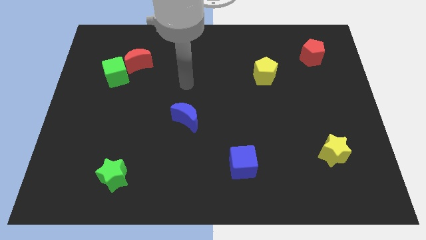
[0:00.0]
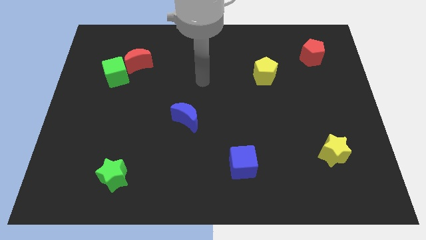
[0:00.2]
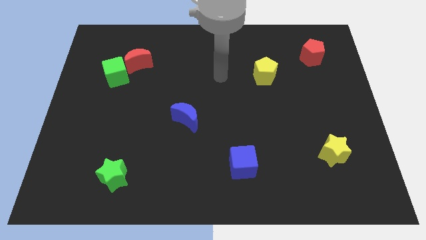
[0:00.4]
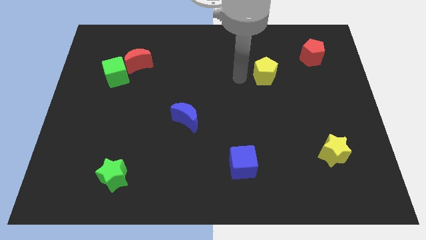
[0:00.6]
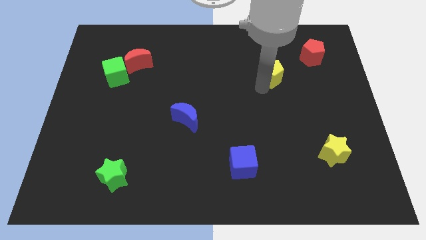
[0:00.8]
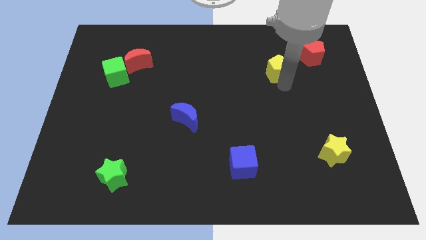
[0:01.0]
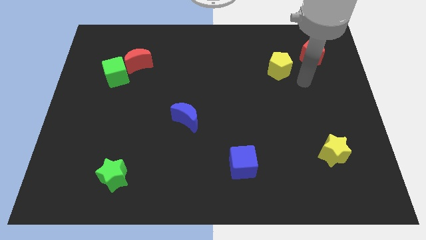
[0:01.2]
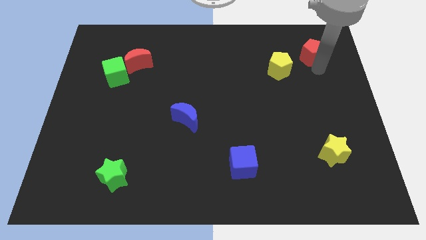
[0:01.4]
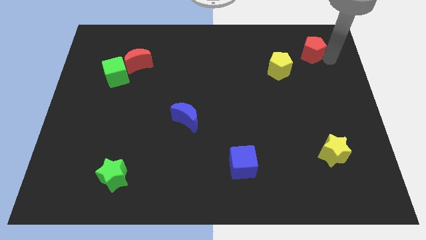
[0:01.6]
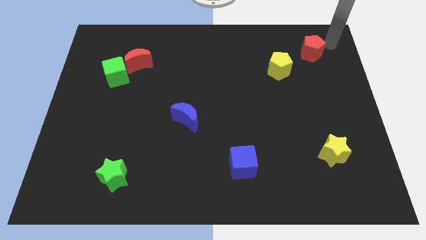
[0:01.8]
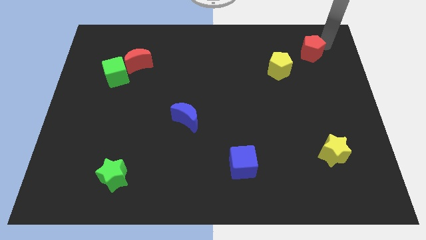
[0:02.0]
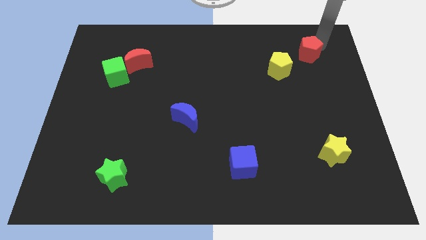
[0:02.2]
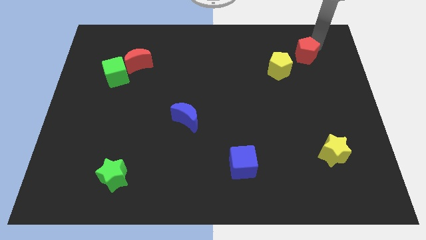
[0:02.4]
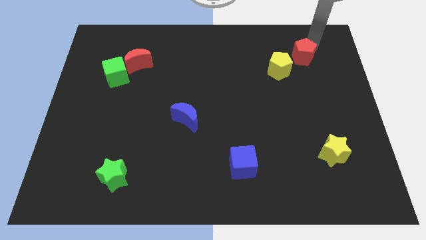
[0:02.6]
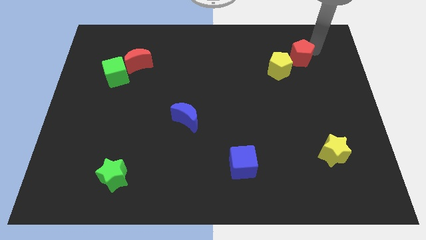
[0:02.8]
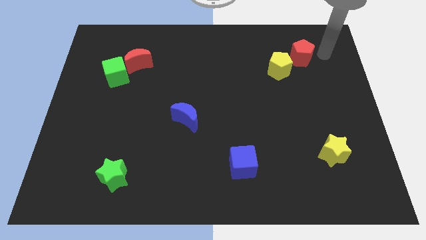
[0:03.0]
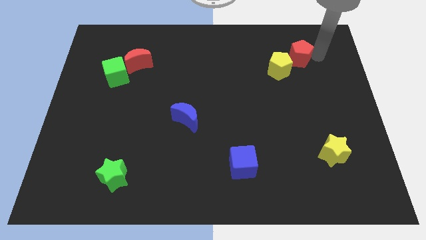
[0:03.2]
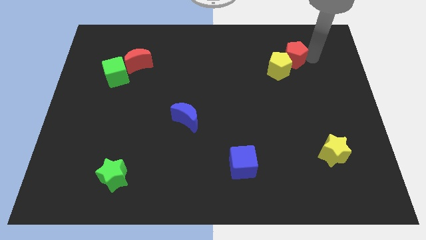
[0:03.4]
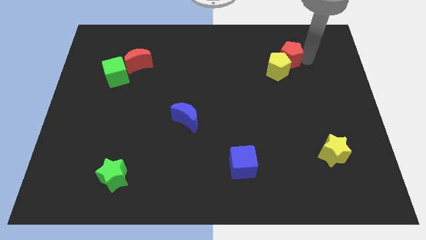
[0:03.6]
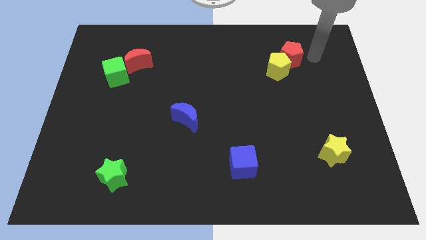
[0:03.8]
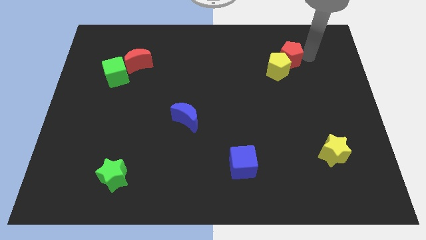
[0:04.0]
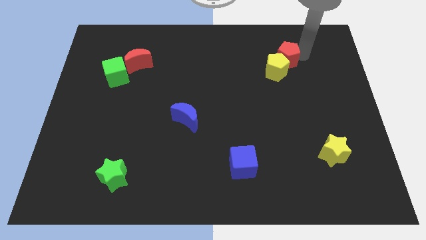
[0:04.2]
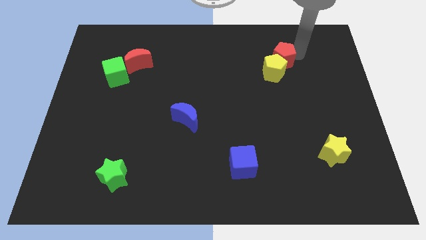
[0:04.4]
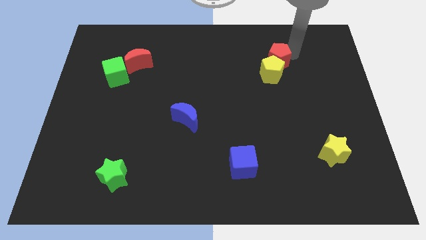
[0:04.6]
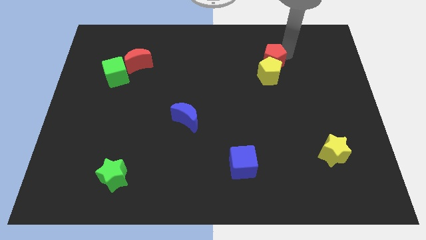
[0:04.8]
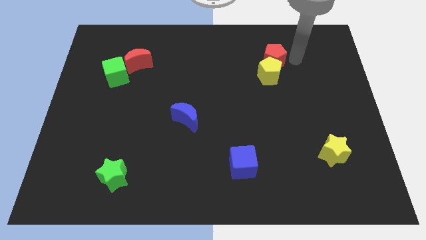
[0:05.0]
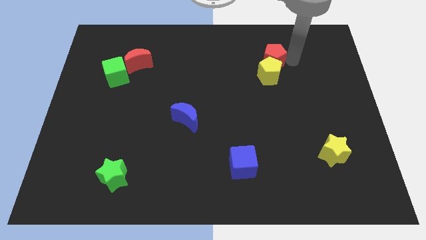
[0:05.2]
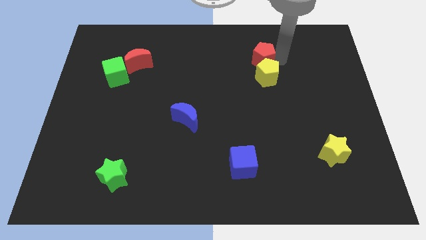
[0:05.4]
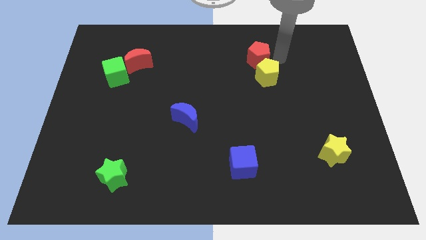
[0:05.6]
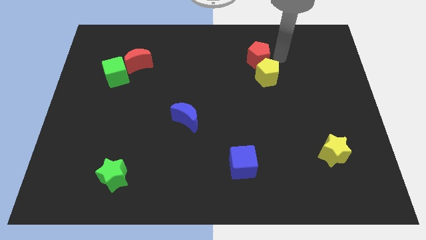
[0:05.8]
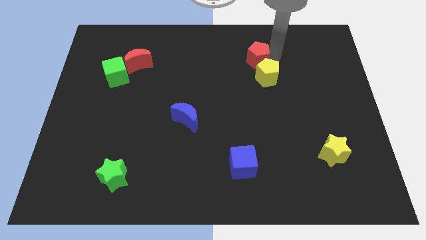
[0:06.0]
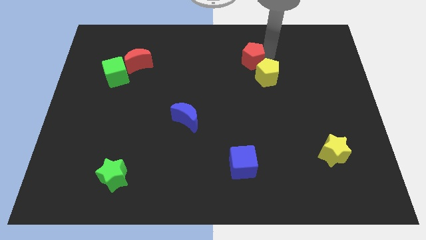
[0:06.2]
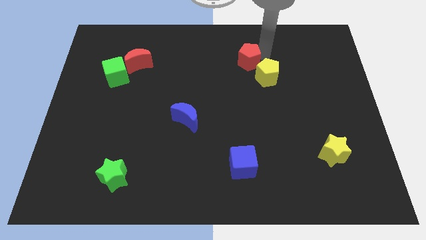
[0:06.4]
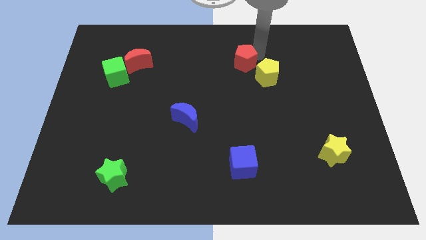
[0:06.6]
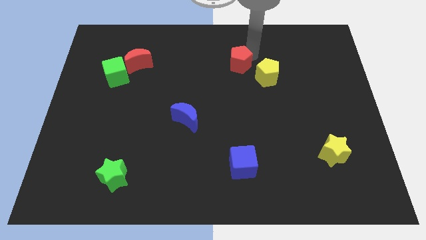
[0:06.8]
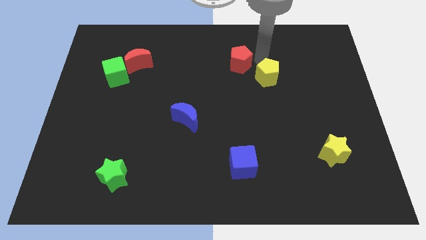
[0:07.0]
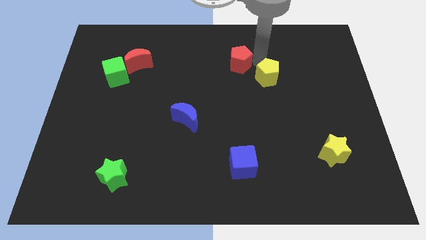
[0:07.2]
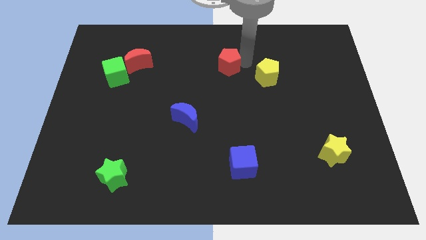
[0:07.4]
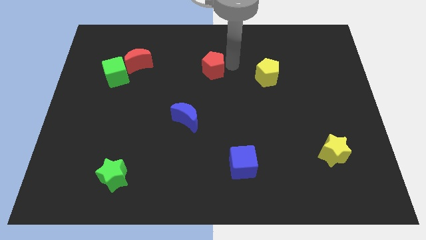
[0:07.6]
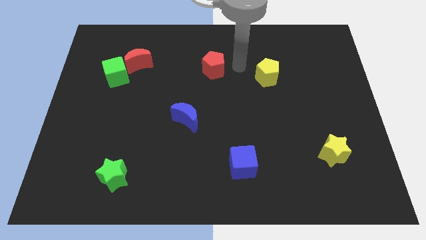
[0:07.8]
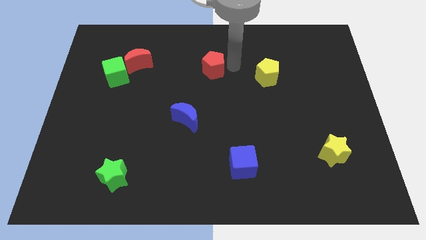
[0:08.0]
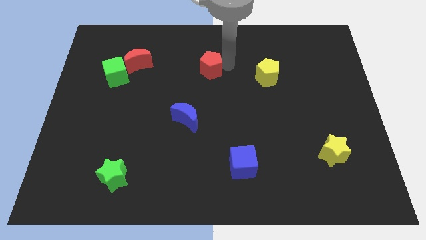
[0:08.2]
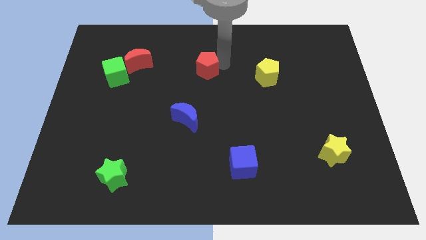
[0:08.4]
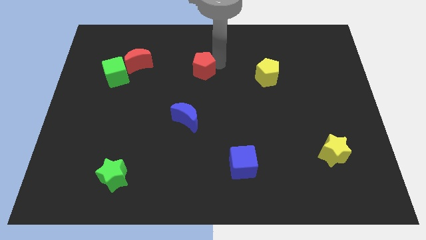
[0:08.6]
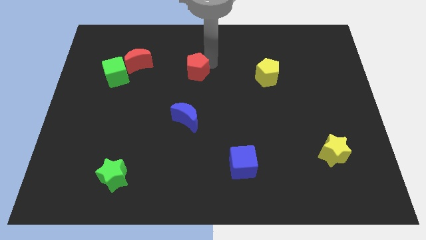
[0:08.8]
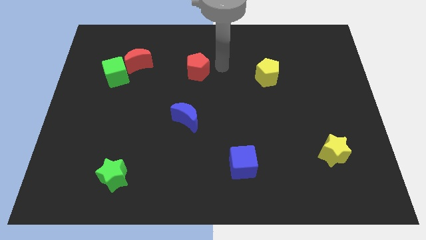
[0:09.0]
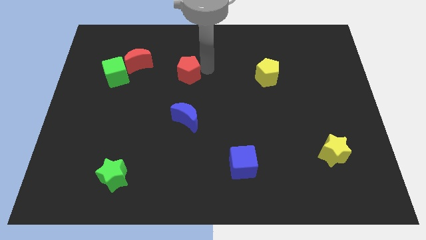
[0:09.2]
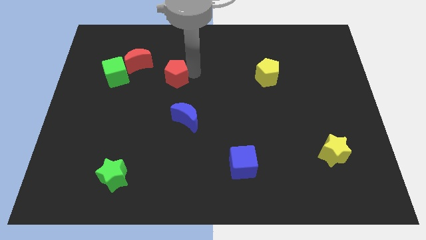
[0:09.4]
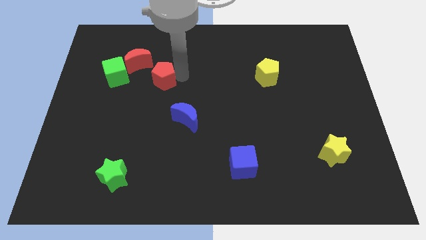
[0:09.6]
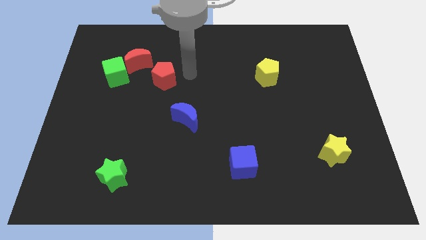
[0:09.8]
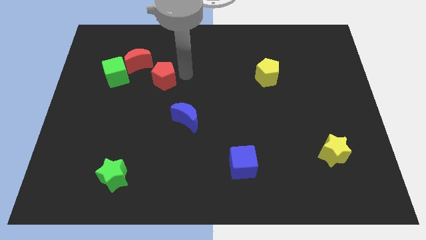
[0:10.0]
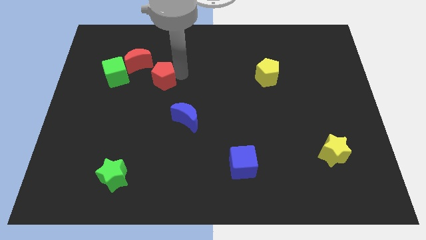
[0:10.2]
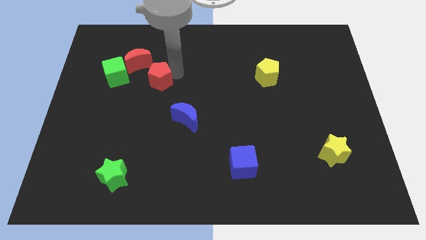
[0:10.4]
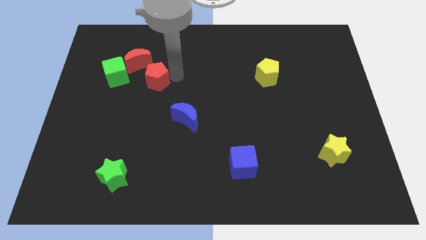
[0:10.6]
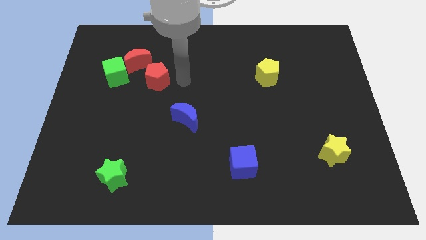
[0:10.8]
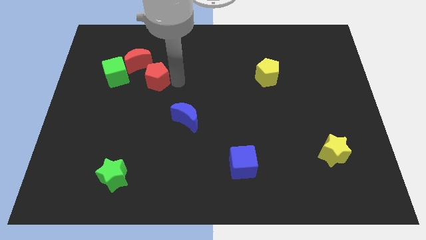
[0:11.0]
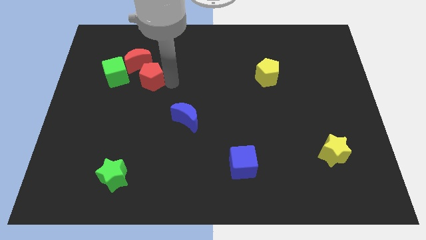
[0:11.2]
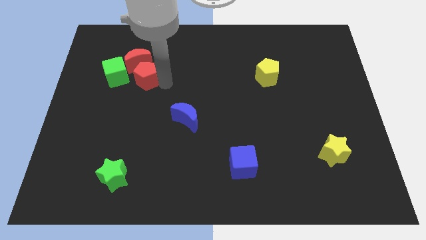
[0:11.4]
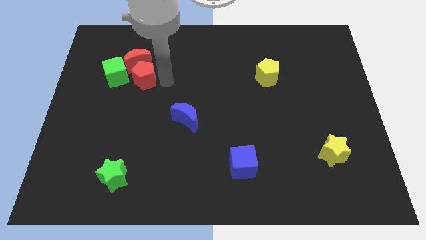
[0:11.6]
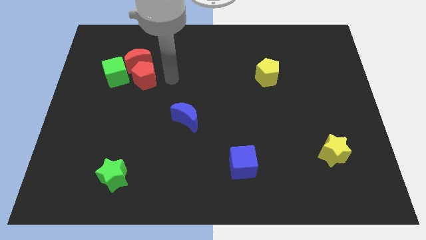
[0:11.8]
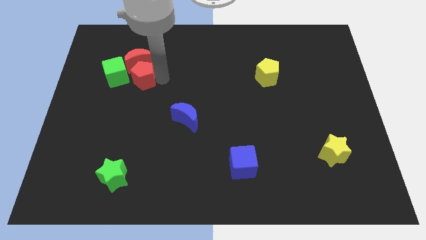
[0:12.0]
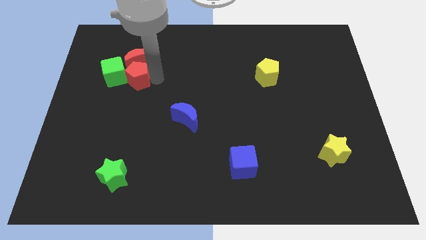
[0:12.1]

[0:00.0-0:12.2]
push the red pentagon to the green cube

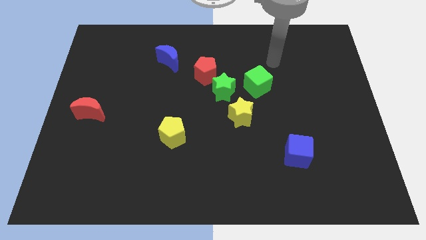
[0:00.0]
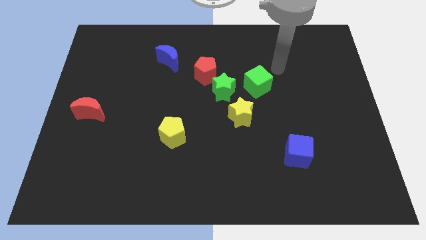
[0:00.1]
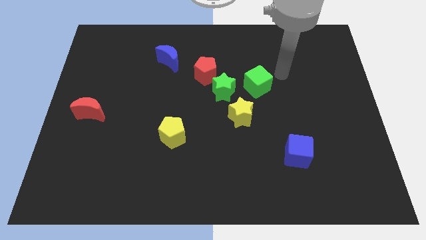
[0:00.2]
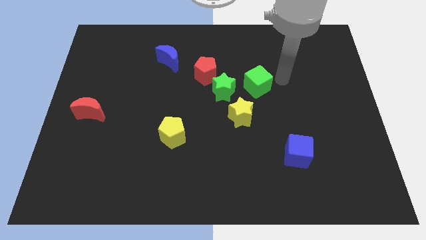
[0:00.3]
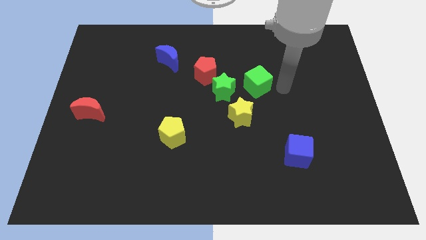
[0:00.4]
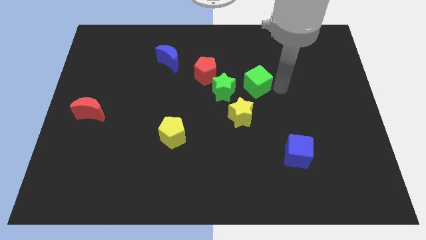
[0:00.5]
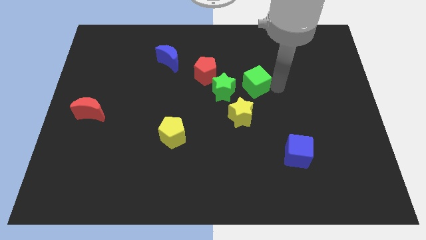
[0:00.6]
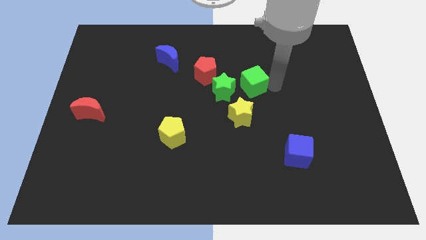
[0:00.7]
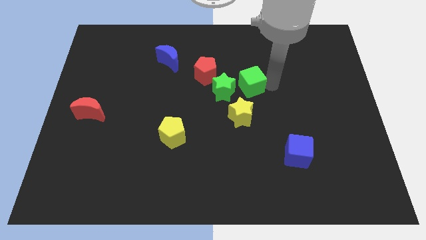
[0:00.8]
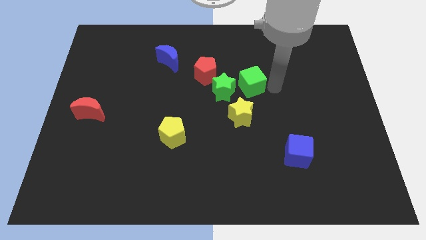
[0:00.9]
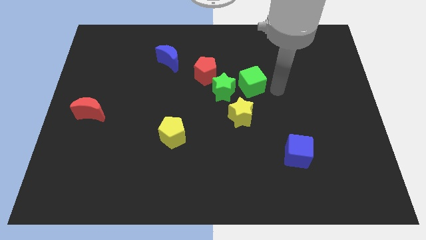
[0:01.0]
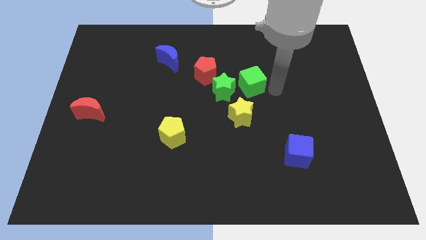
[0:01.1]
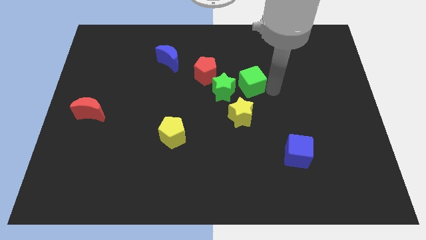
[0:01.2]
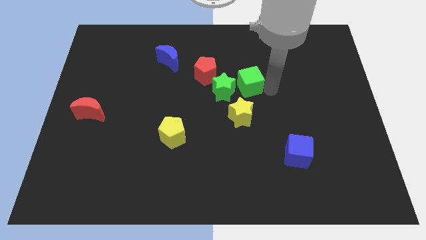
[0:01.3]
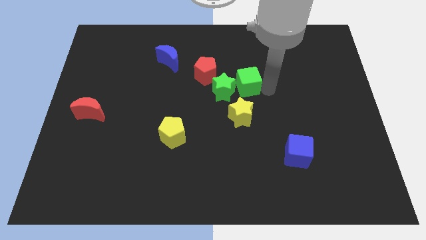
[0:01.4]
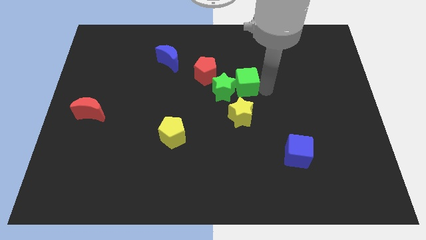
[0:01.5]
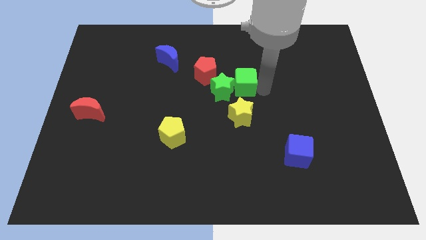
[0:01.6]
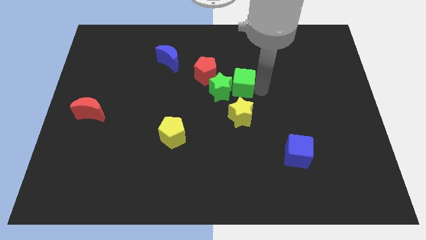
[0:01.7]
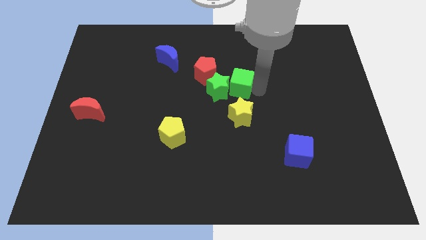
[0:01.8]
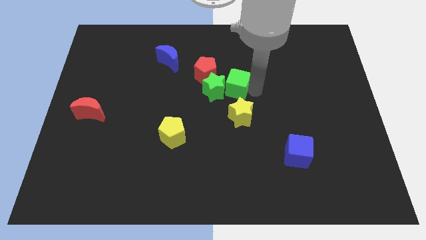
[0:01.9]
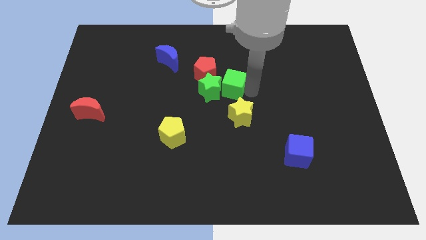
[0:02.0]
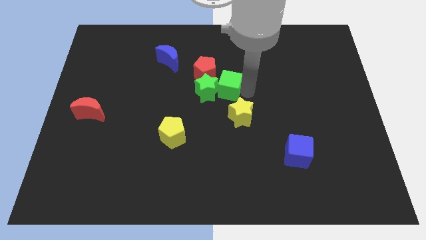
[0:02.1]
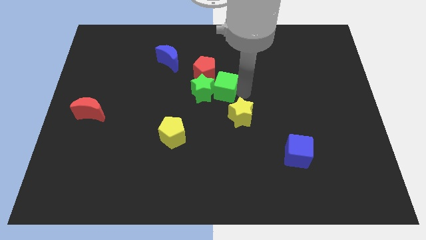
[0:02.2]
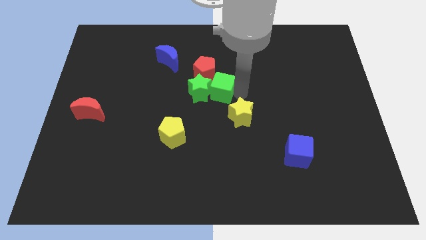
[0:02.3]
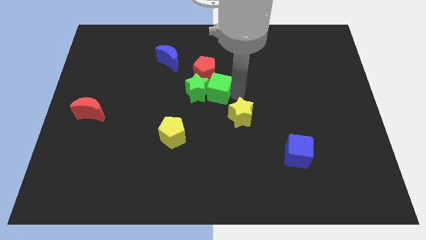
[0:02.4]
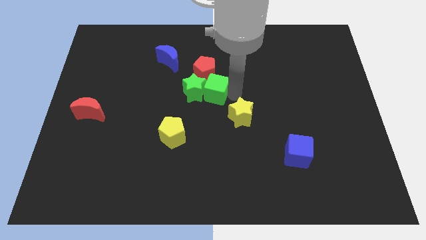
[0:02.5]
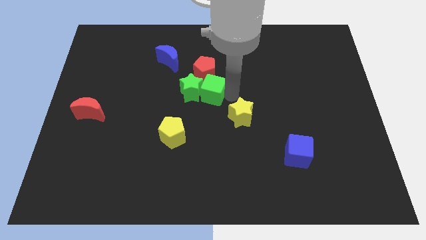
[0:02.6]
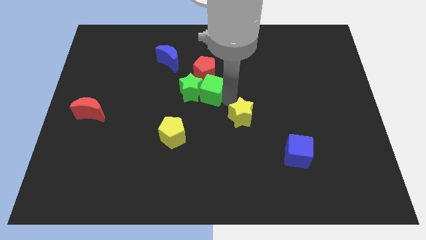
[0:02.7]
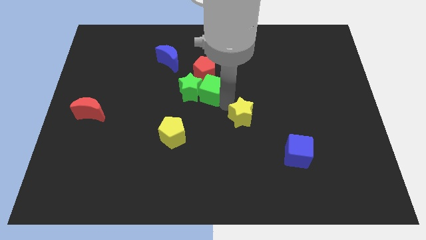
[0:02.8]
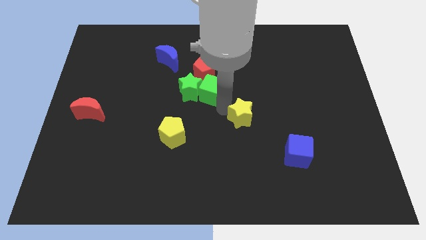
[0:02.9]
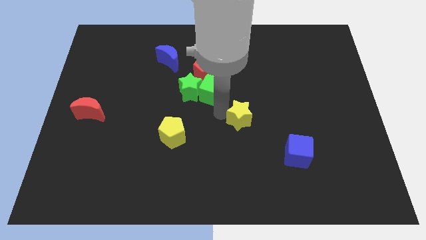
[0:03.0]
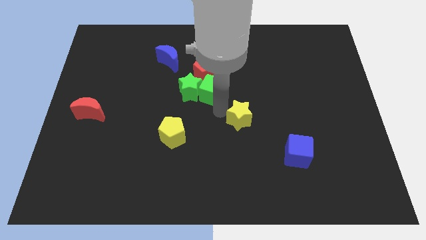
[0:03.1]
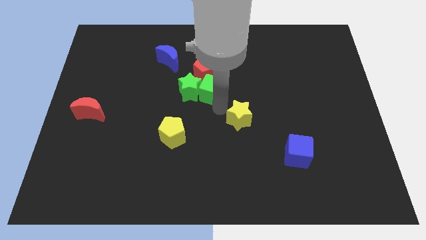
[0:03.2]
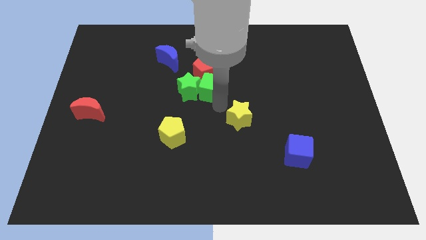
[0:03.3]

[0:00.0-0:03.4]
put the green cube close to the red pentagon
